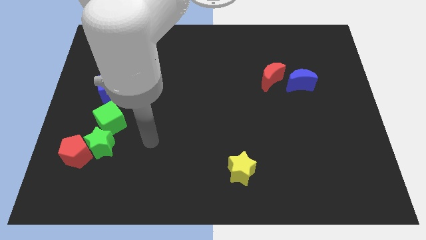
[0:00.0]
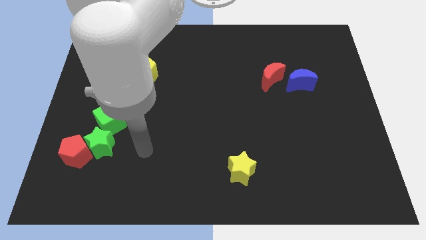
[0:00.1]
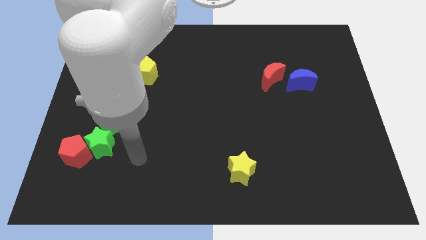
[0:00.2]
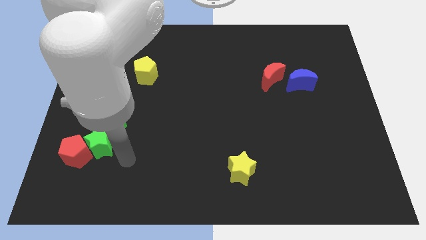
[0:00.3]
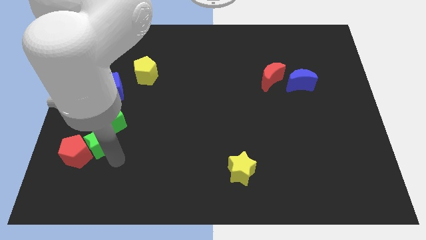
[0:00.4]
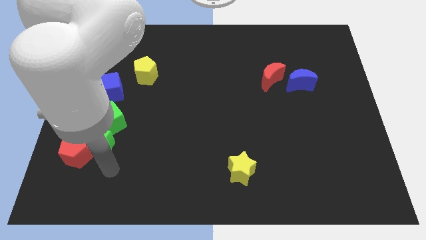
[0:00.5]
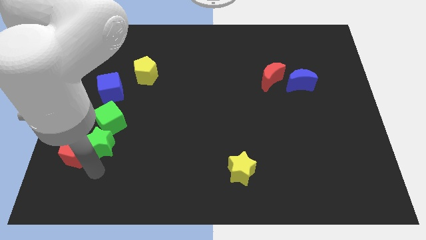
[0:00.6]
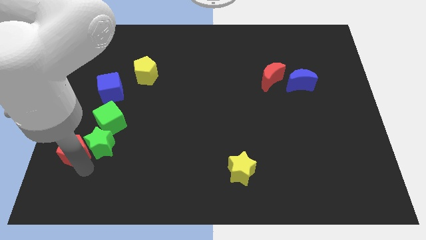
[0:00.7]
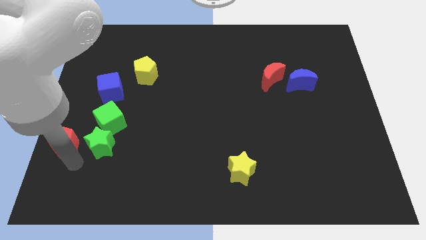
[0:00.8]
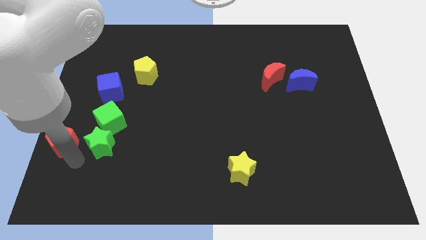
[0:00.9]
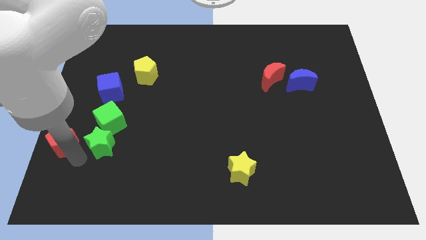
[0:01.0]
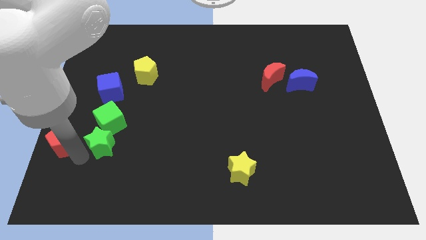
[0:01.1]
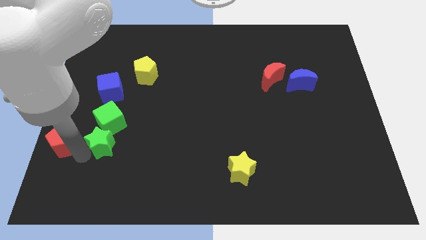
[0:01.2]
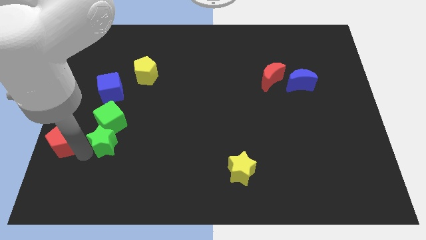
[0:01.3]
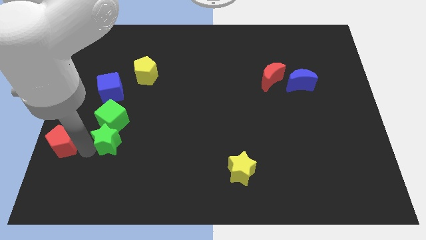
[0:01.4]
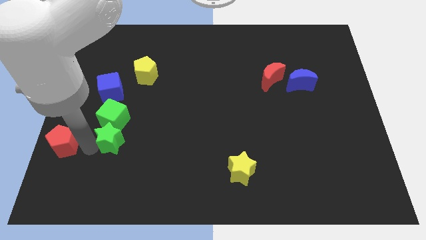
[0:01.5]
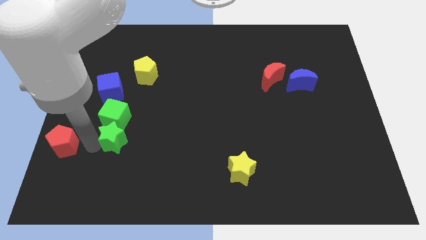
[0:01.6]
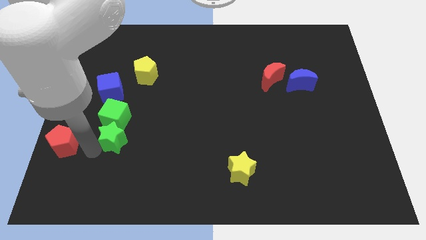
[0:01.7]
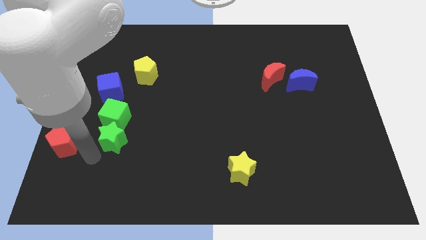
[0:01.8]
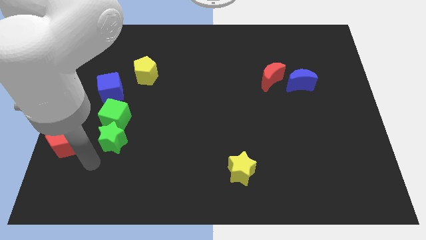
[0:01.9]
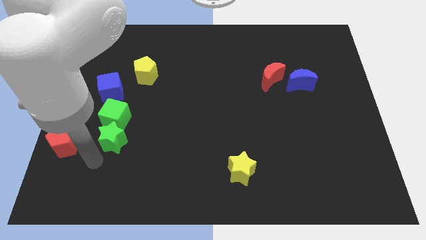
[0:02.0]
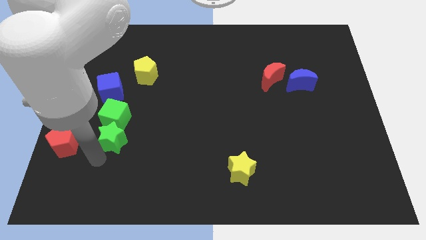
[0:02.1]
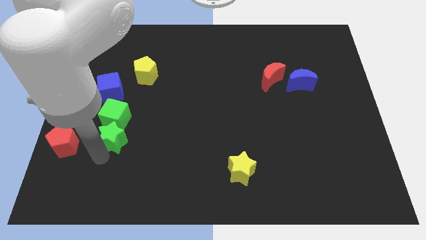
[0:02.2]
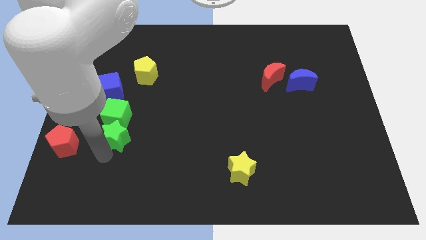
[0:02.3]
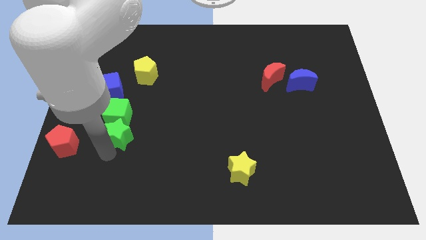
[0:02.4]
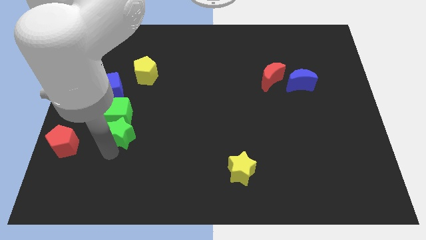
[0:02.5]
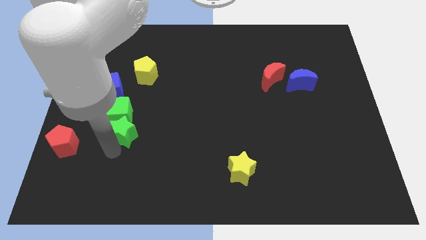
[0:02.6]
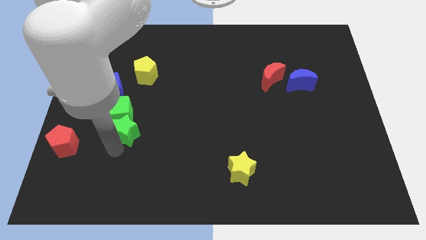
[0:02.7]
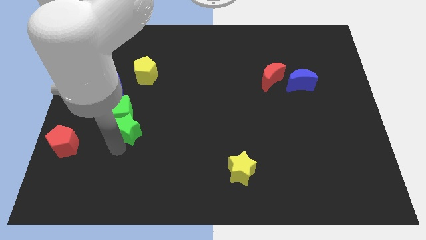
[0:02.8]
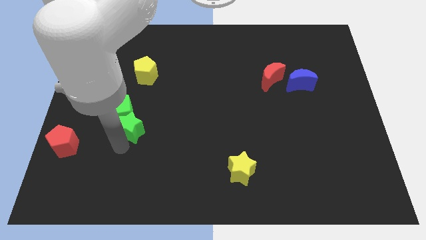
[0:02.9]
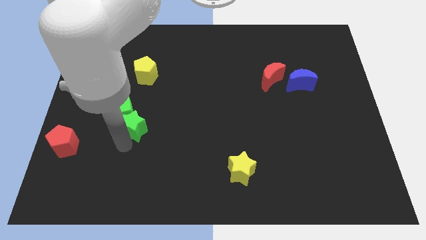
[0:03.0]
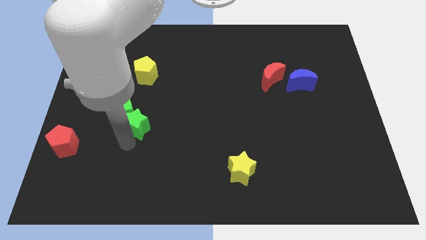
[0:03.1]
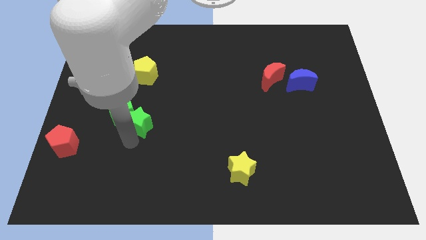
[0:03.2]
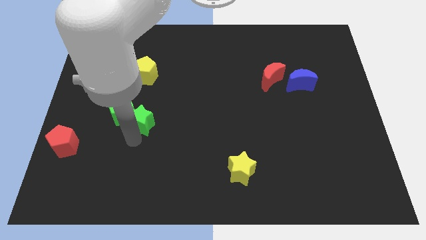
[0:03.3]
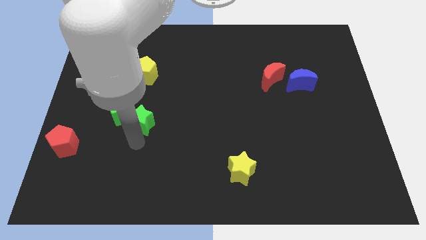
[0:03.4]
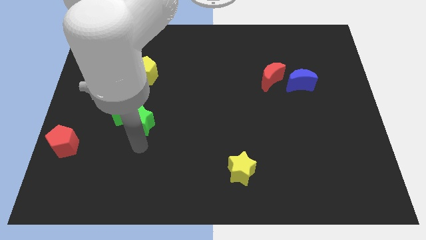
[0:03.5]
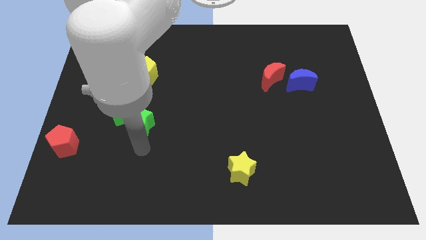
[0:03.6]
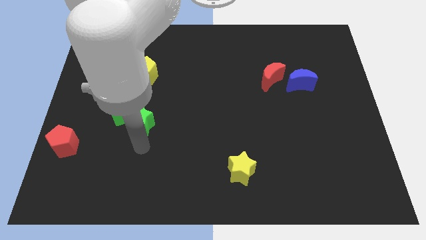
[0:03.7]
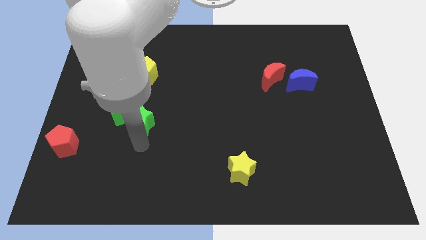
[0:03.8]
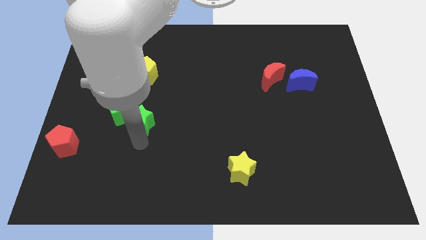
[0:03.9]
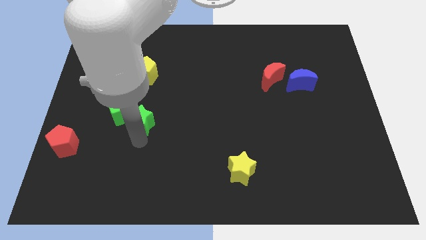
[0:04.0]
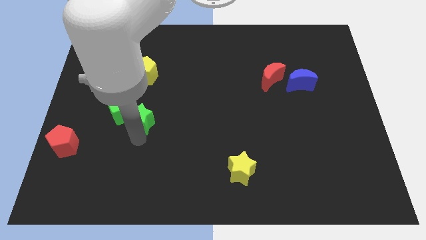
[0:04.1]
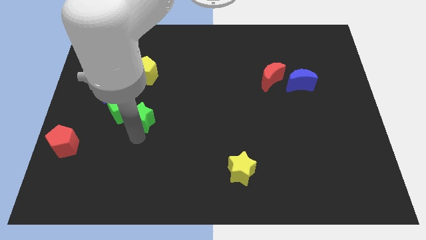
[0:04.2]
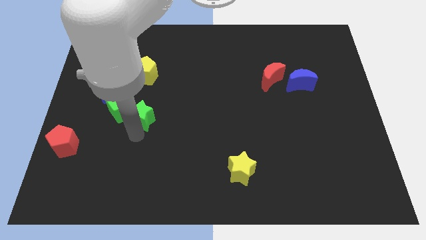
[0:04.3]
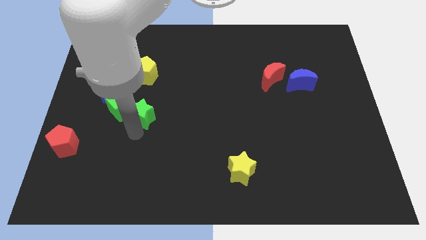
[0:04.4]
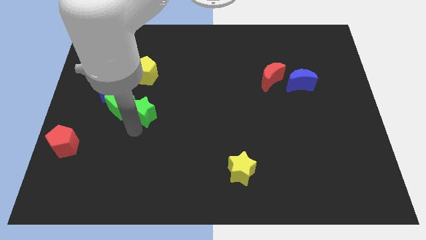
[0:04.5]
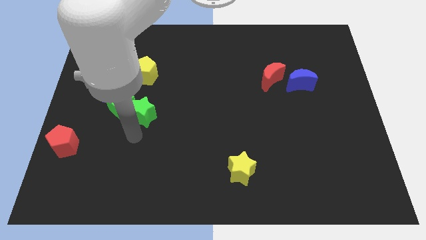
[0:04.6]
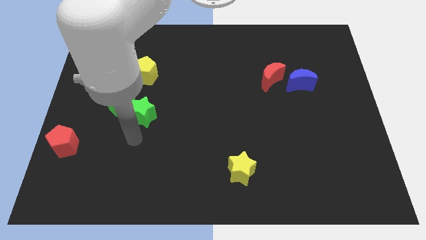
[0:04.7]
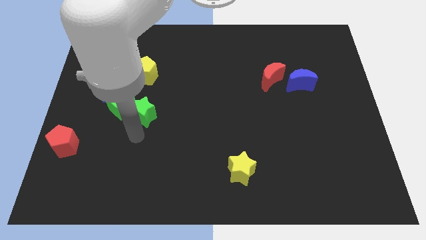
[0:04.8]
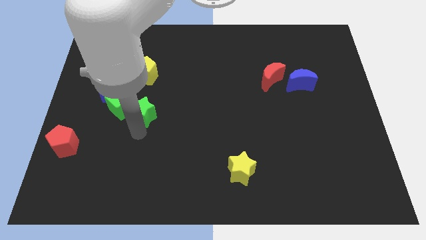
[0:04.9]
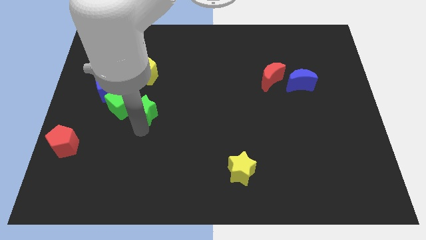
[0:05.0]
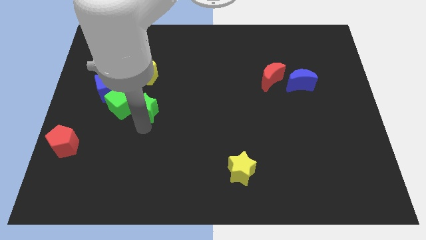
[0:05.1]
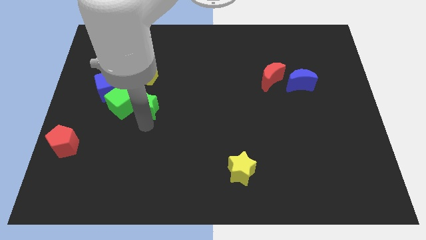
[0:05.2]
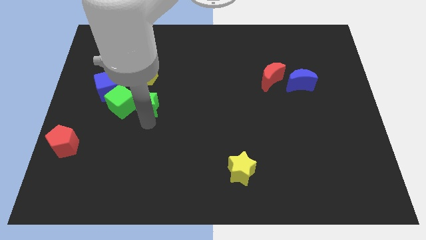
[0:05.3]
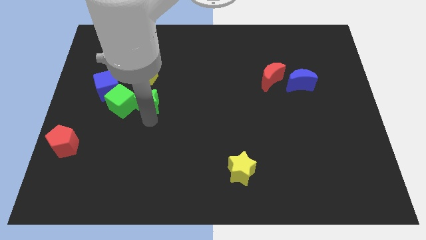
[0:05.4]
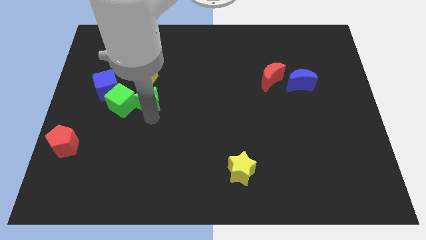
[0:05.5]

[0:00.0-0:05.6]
push the green star to the right side of the blue cube
